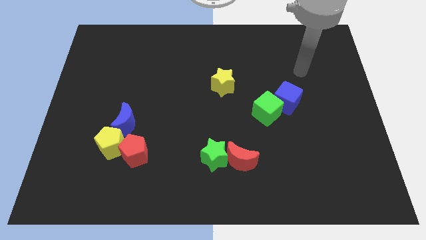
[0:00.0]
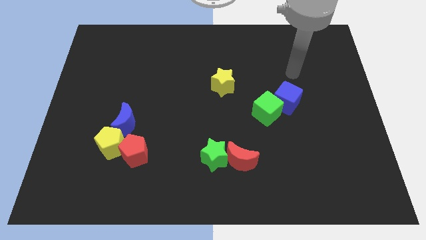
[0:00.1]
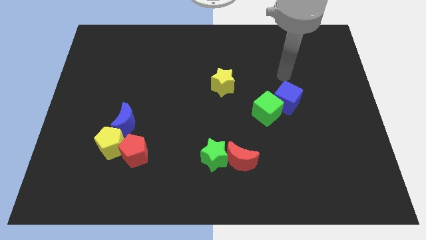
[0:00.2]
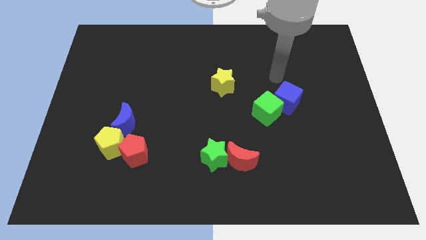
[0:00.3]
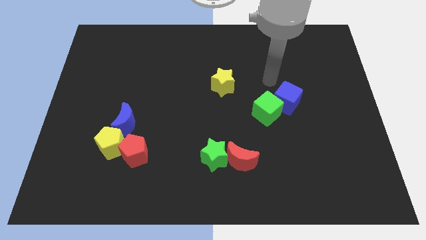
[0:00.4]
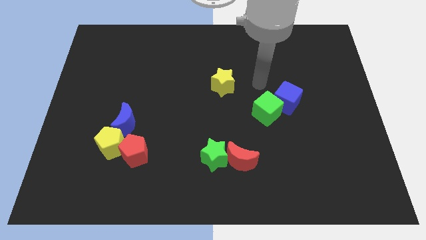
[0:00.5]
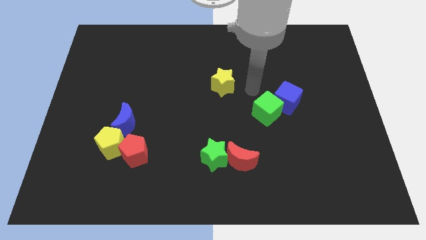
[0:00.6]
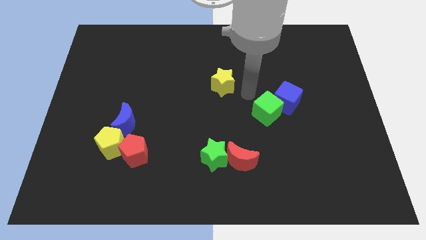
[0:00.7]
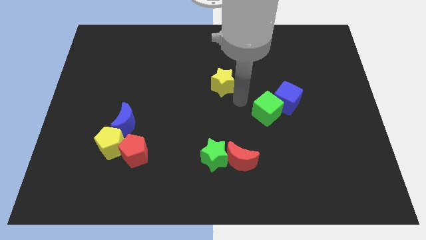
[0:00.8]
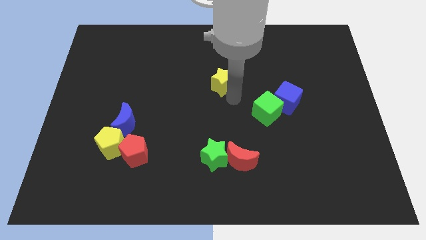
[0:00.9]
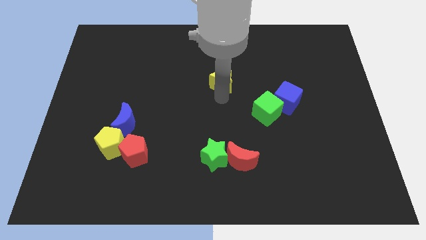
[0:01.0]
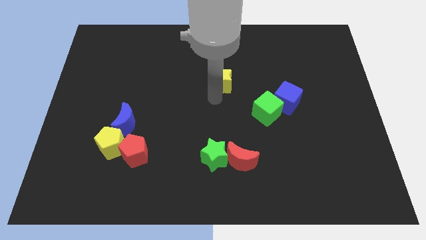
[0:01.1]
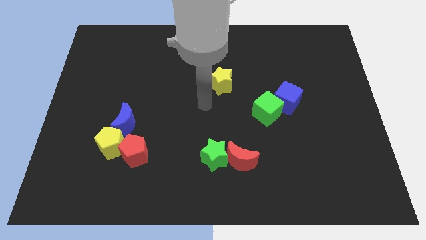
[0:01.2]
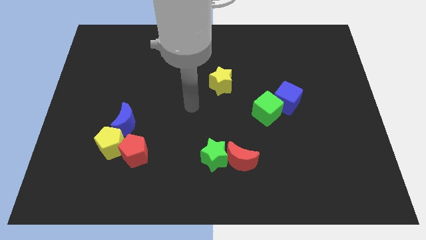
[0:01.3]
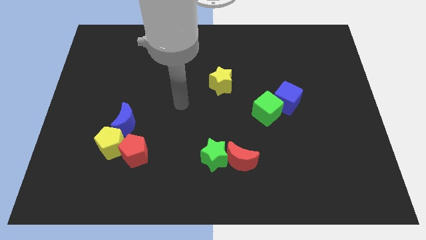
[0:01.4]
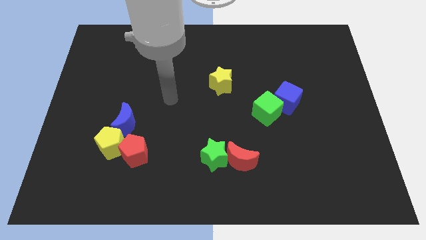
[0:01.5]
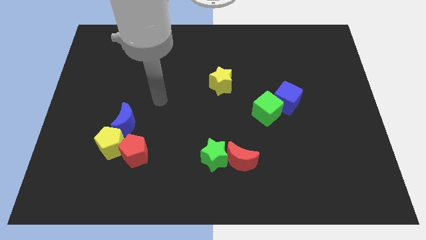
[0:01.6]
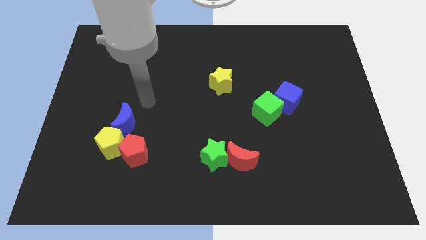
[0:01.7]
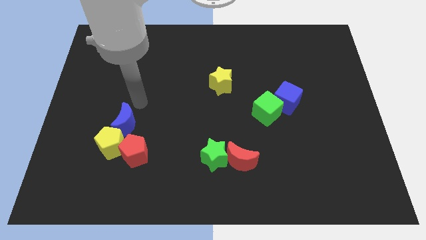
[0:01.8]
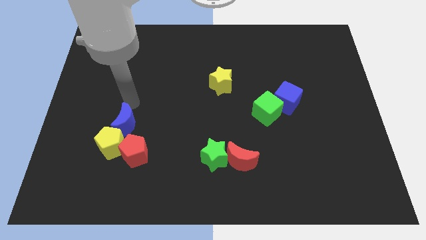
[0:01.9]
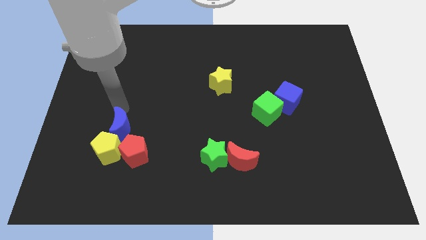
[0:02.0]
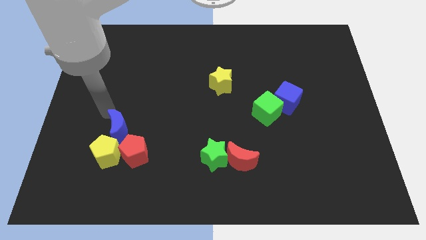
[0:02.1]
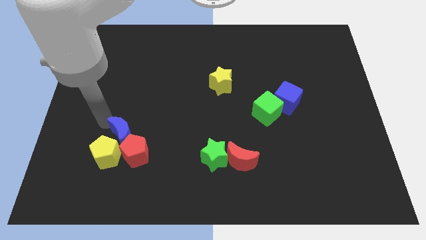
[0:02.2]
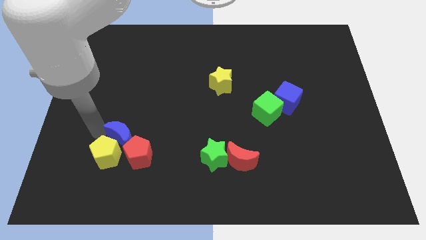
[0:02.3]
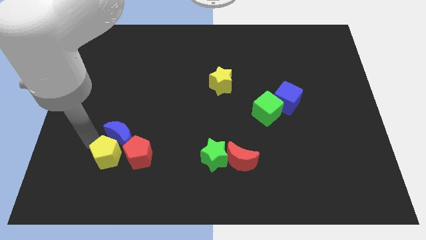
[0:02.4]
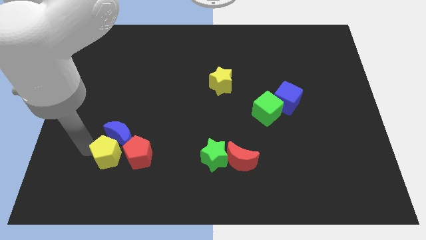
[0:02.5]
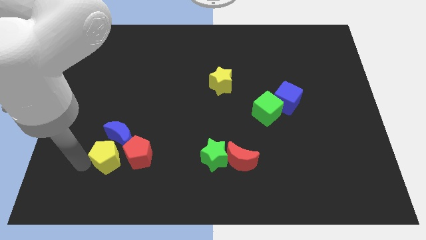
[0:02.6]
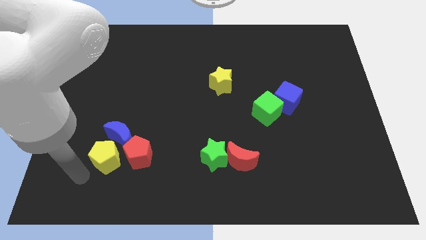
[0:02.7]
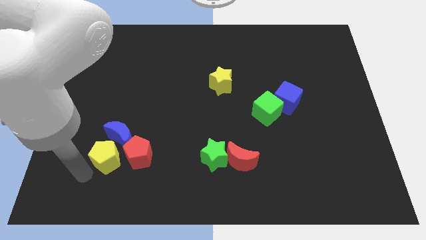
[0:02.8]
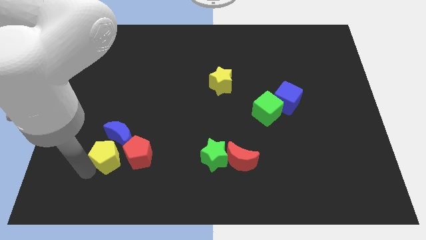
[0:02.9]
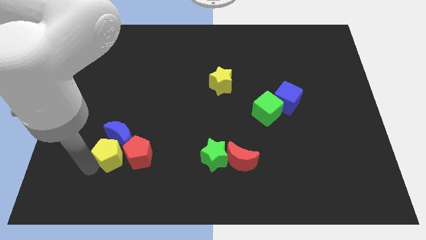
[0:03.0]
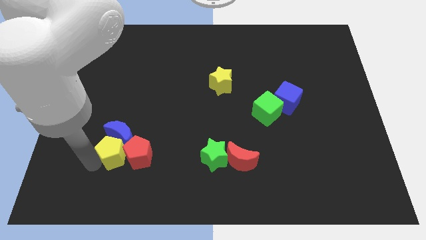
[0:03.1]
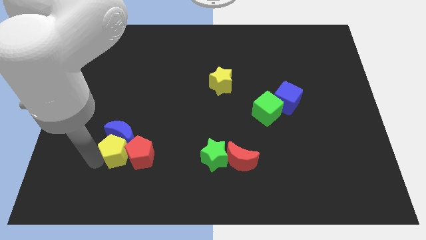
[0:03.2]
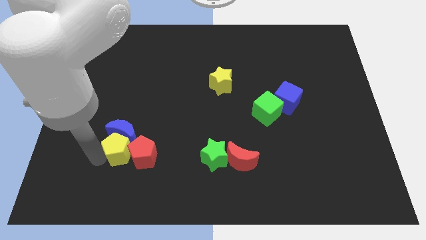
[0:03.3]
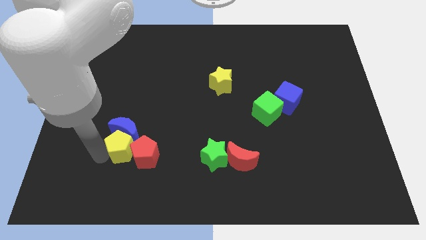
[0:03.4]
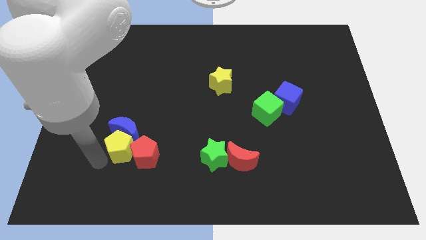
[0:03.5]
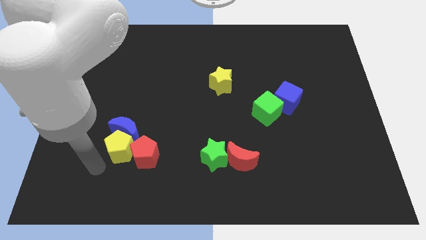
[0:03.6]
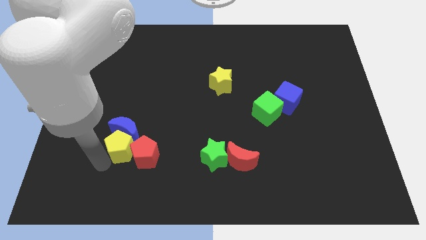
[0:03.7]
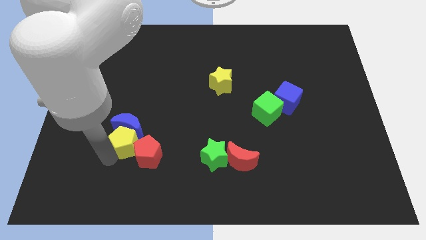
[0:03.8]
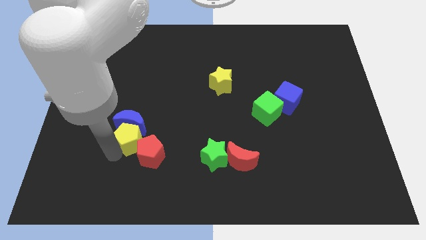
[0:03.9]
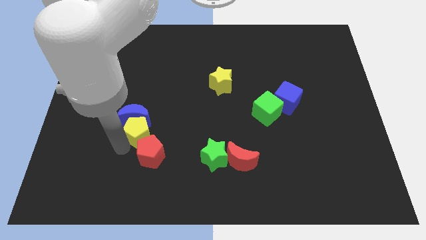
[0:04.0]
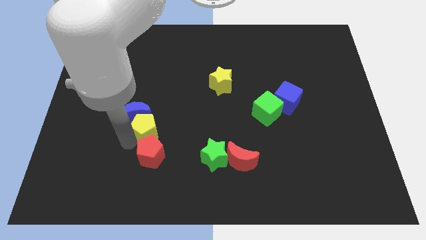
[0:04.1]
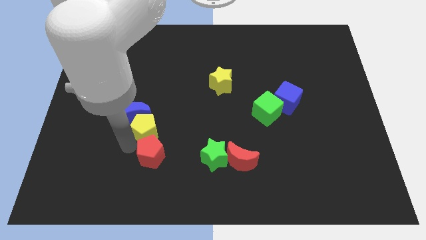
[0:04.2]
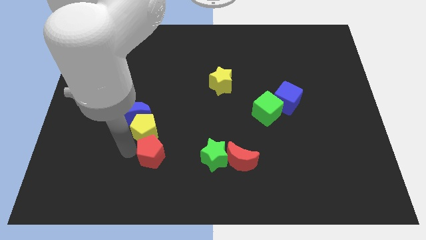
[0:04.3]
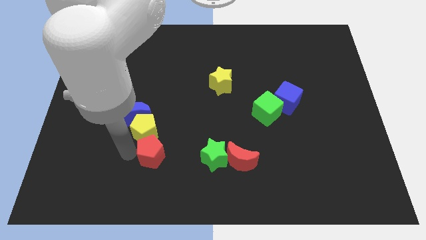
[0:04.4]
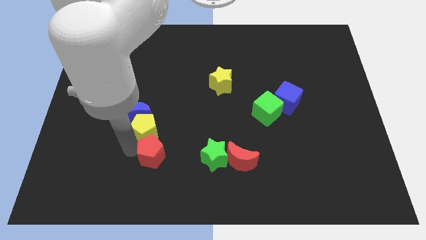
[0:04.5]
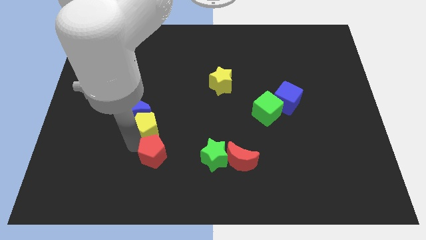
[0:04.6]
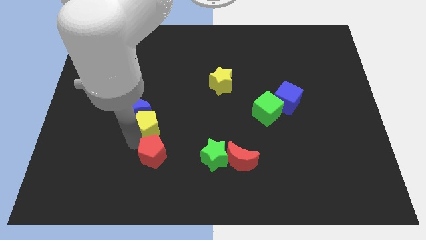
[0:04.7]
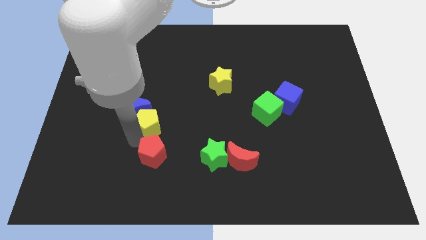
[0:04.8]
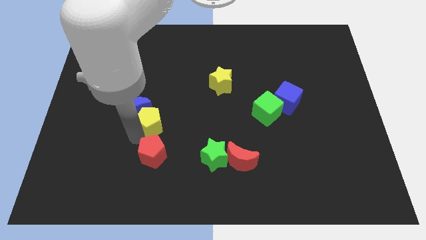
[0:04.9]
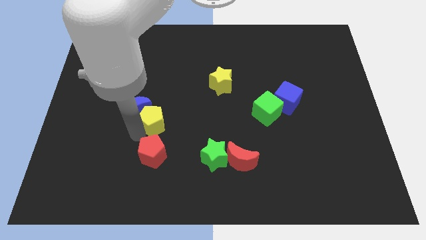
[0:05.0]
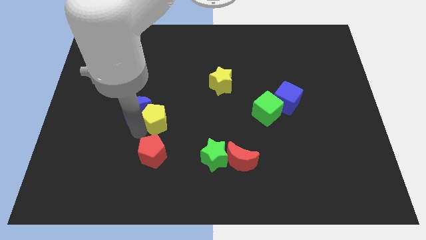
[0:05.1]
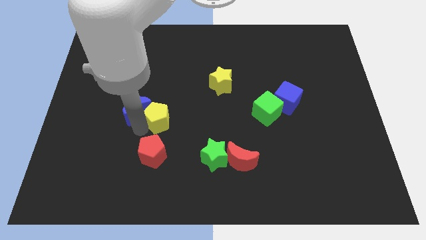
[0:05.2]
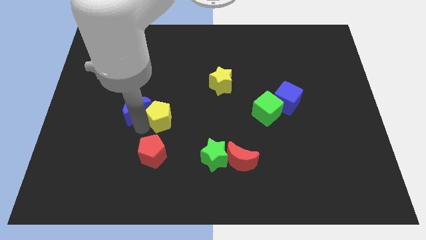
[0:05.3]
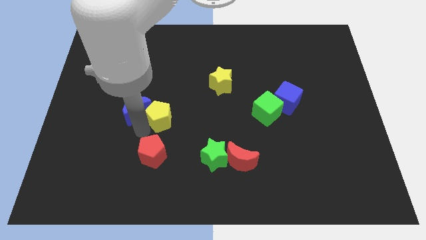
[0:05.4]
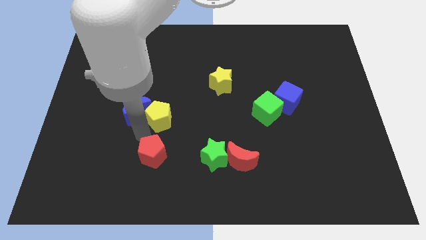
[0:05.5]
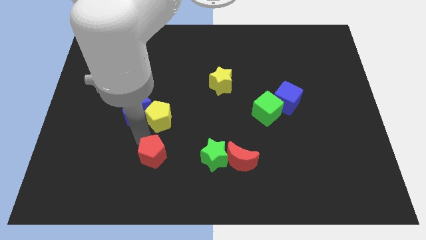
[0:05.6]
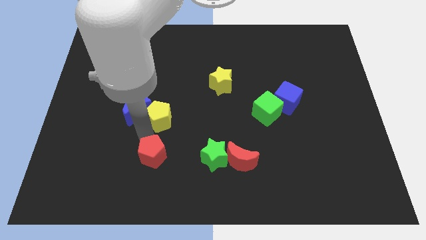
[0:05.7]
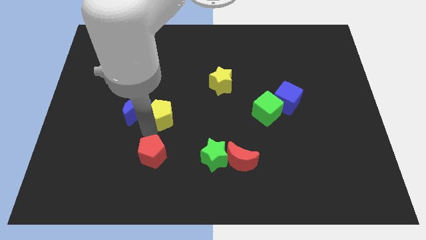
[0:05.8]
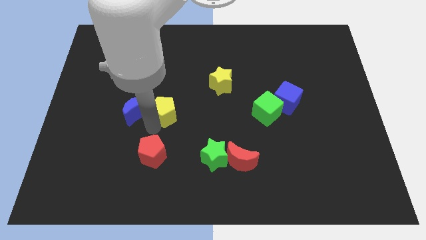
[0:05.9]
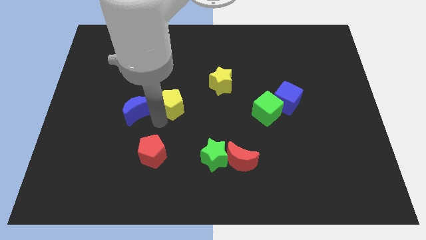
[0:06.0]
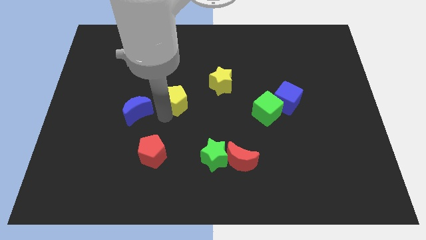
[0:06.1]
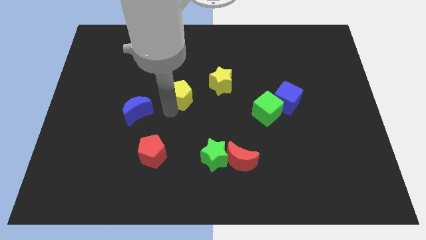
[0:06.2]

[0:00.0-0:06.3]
slide the yellow pentagon to the left of the yellow star
